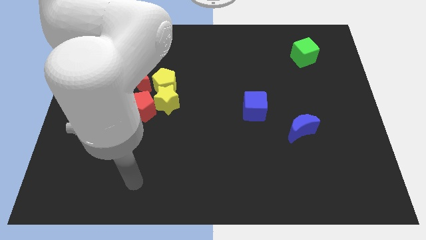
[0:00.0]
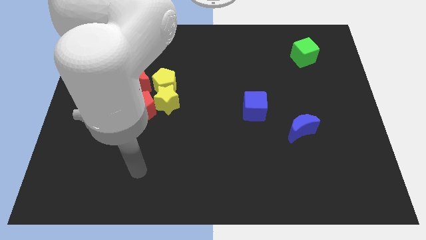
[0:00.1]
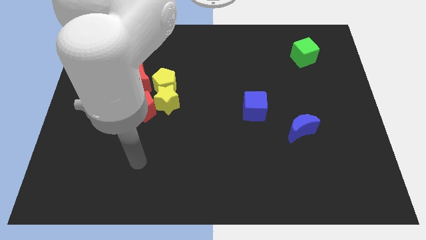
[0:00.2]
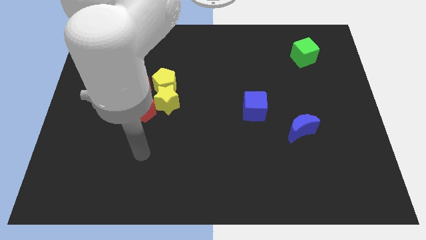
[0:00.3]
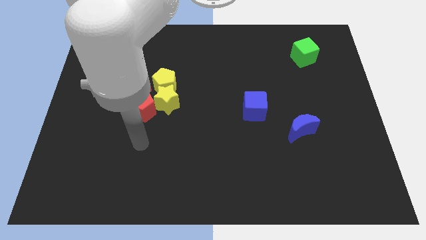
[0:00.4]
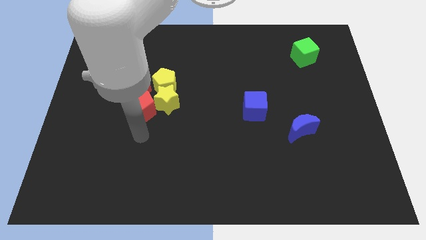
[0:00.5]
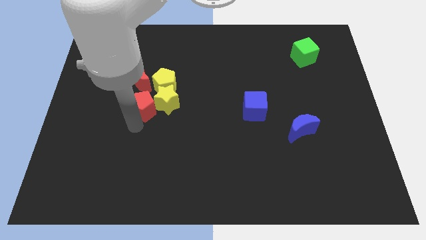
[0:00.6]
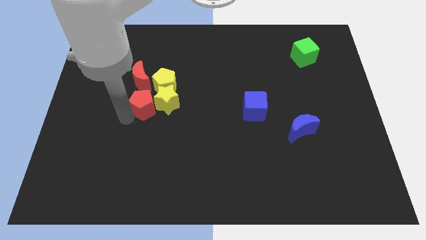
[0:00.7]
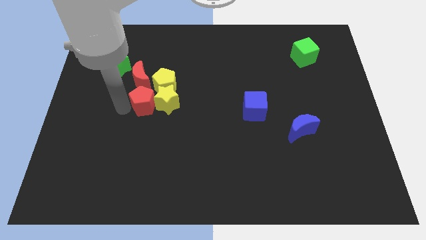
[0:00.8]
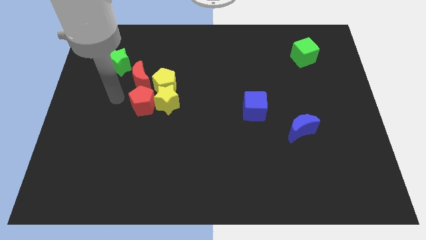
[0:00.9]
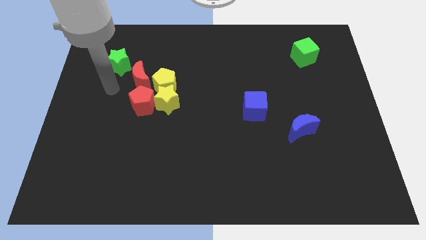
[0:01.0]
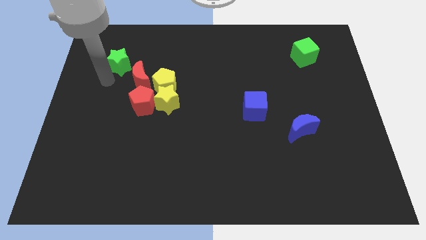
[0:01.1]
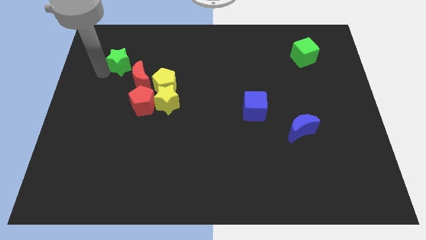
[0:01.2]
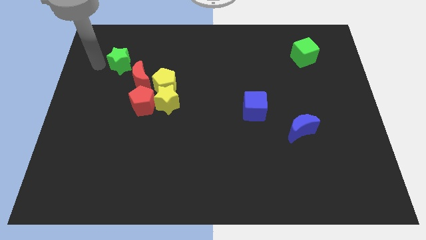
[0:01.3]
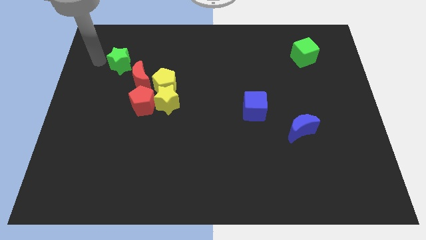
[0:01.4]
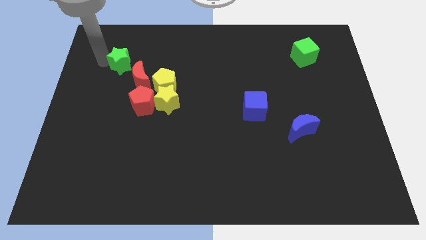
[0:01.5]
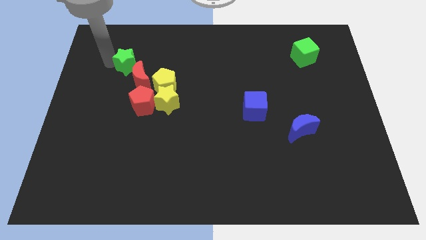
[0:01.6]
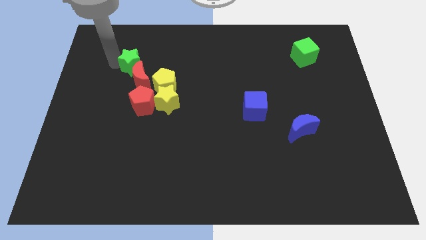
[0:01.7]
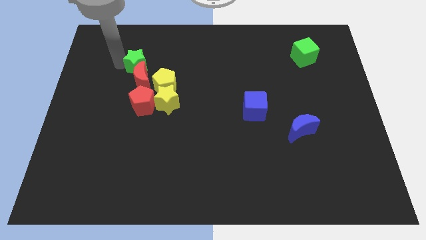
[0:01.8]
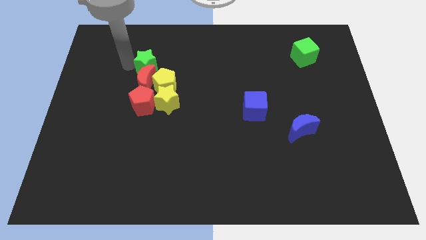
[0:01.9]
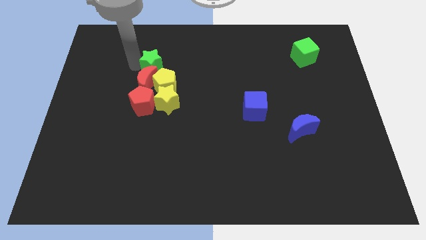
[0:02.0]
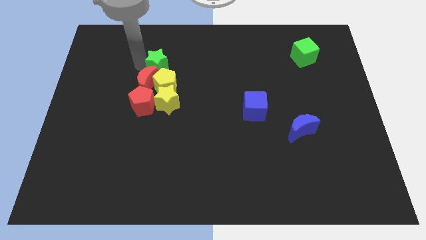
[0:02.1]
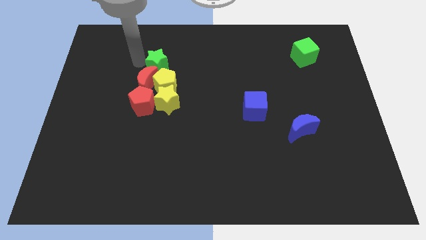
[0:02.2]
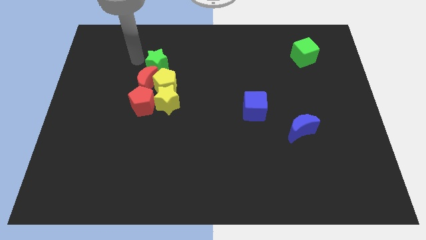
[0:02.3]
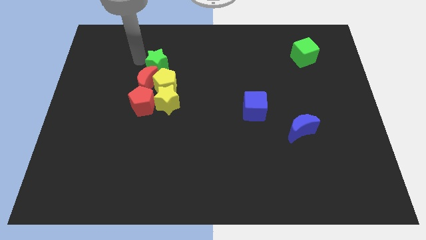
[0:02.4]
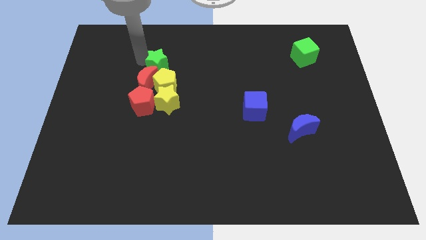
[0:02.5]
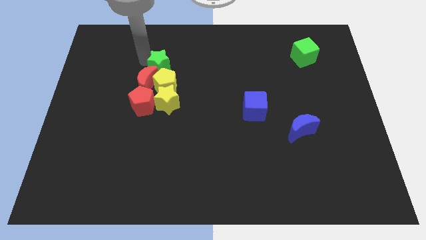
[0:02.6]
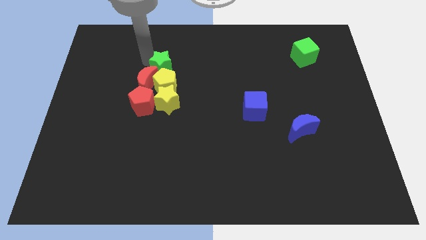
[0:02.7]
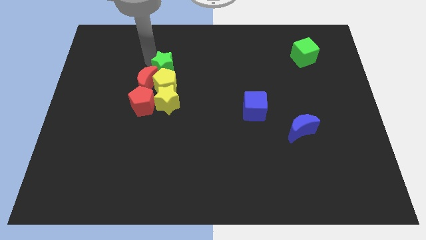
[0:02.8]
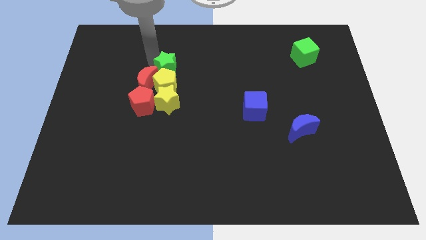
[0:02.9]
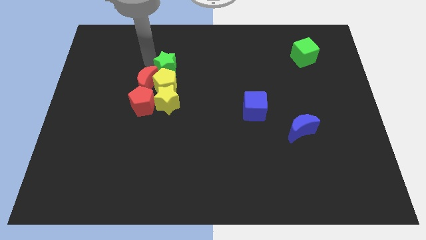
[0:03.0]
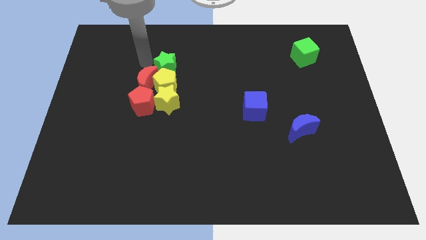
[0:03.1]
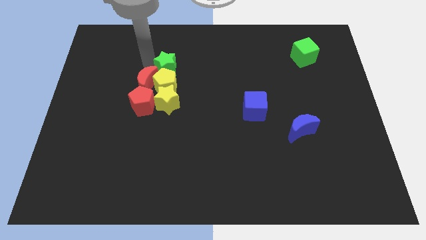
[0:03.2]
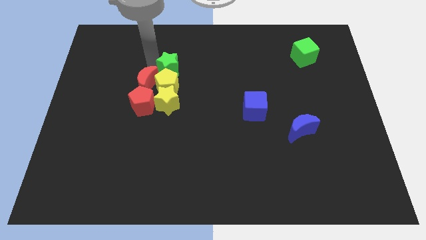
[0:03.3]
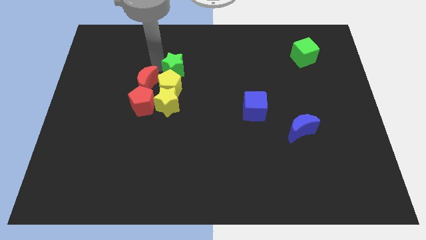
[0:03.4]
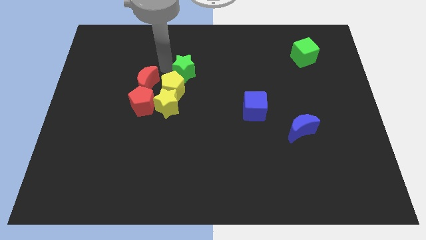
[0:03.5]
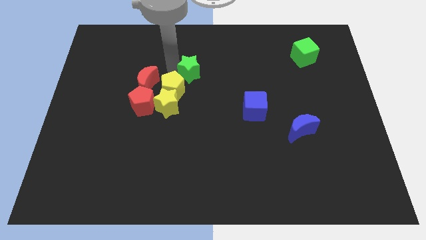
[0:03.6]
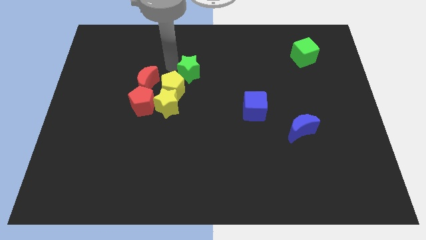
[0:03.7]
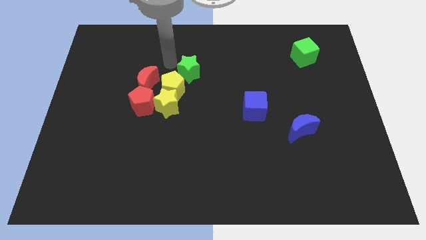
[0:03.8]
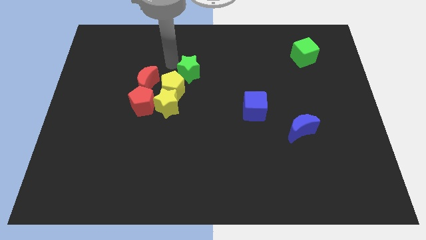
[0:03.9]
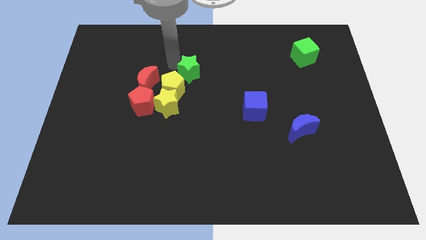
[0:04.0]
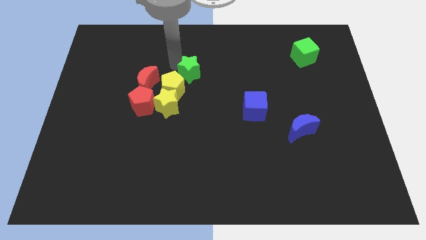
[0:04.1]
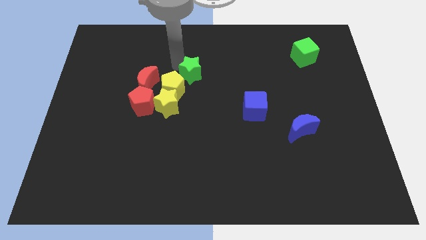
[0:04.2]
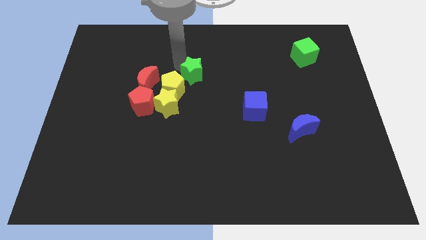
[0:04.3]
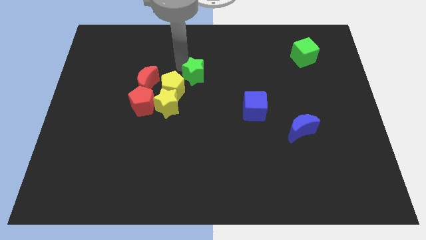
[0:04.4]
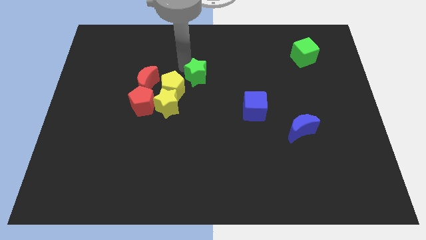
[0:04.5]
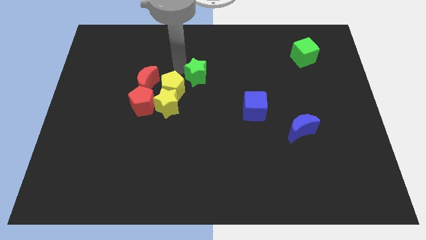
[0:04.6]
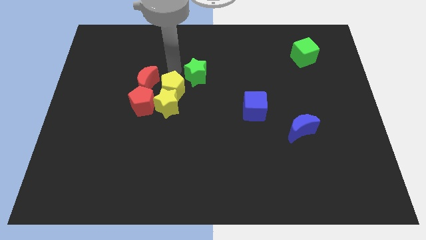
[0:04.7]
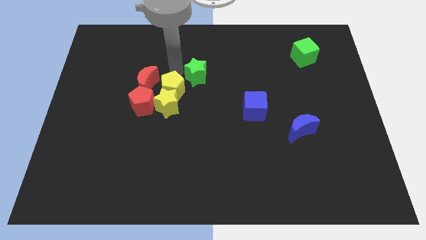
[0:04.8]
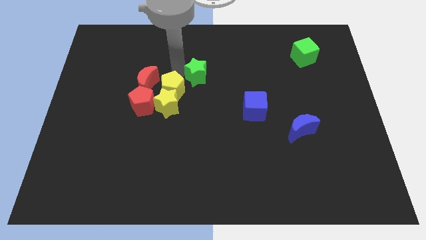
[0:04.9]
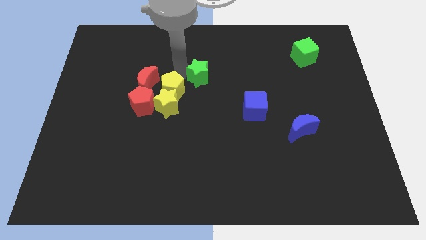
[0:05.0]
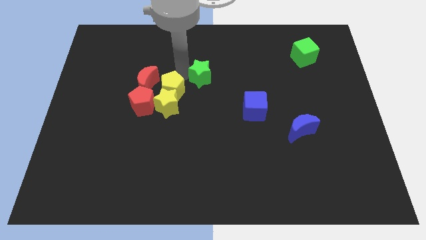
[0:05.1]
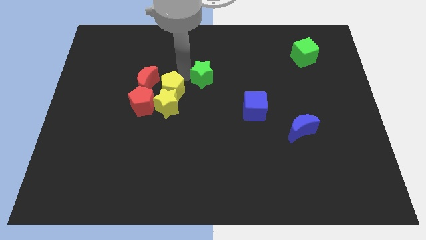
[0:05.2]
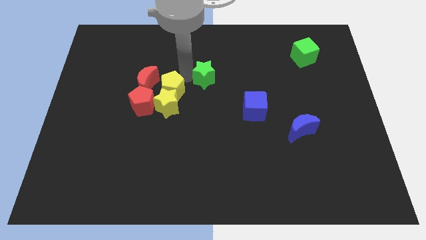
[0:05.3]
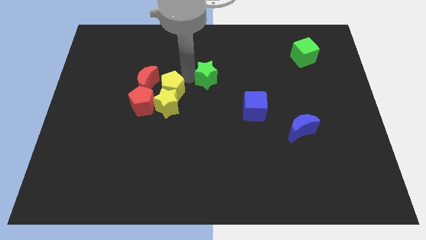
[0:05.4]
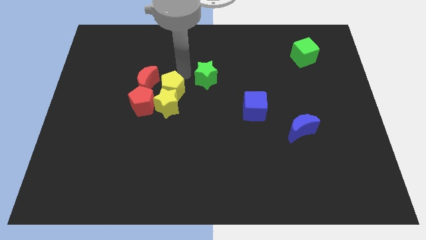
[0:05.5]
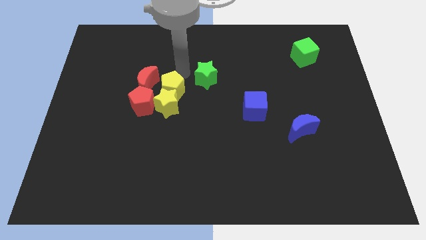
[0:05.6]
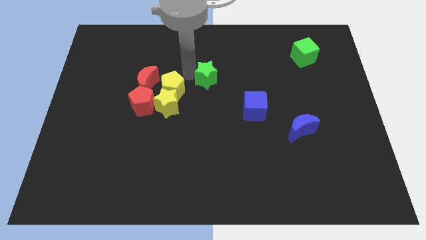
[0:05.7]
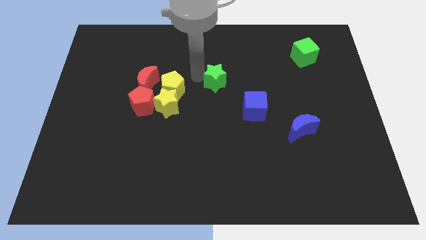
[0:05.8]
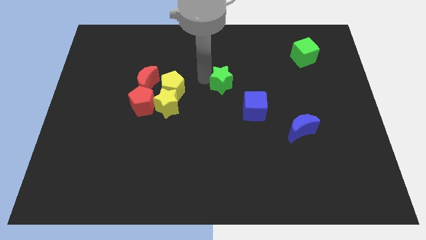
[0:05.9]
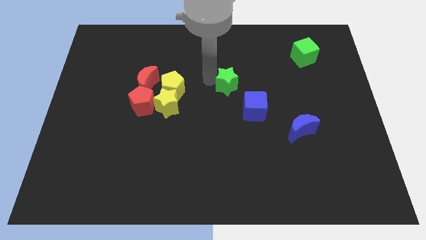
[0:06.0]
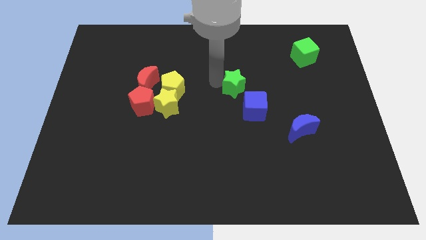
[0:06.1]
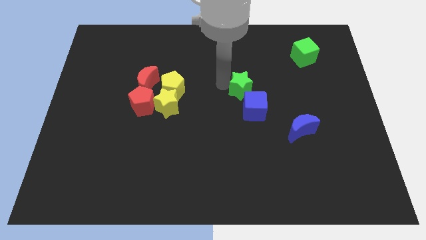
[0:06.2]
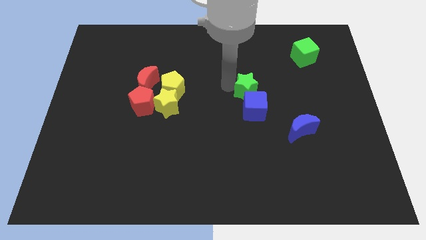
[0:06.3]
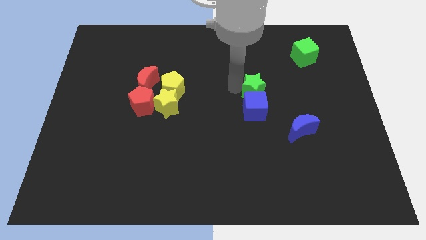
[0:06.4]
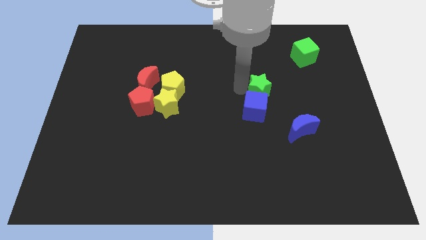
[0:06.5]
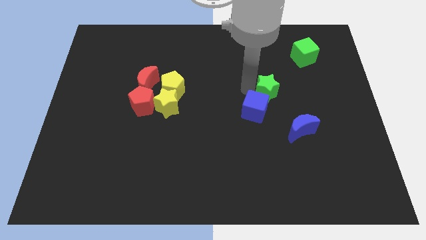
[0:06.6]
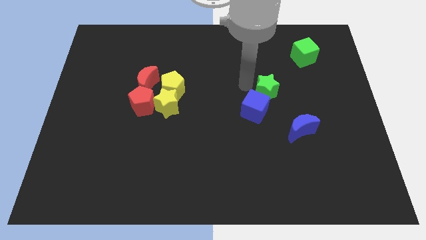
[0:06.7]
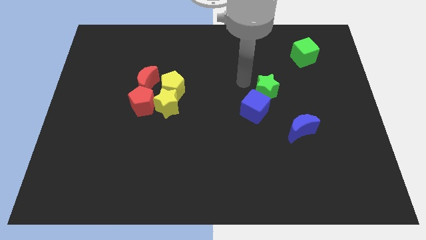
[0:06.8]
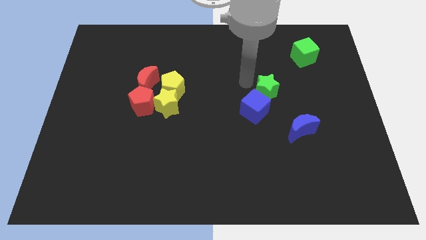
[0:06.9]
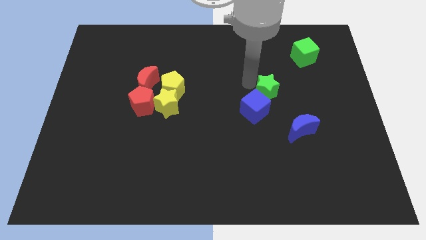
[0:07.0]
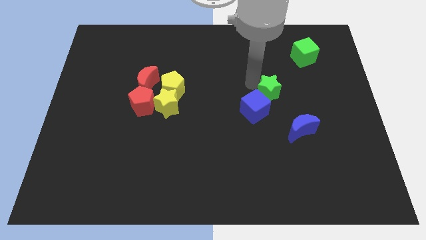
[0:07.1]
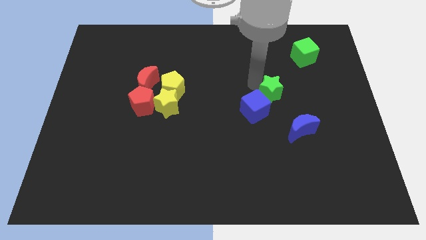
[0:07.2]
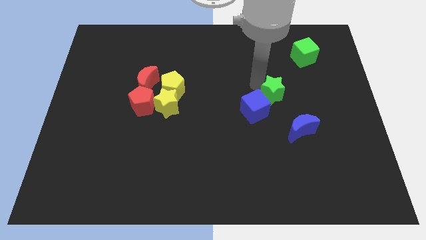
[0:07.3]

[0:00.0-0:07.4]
push the green star to the right side of the blue cube
